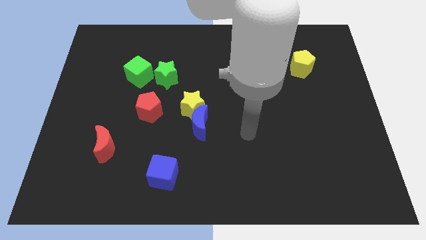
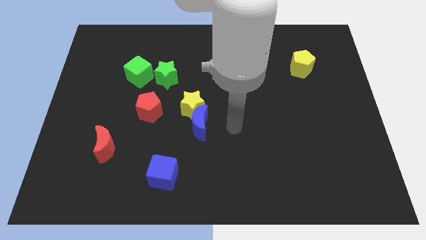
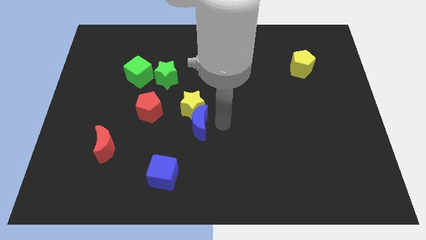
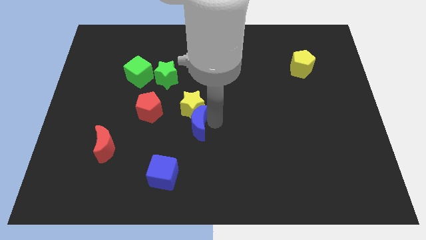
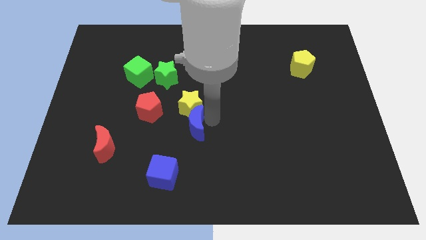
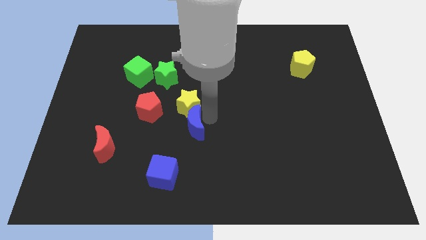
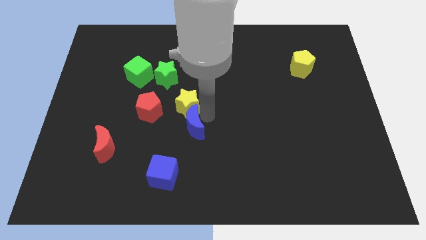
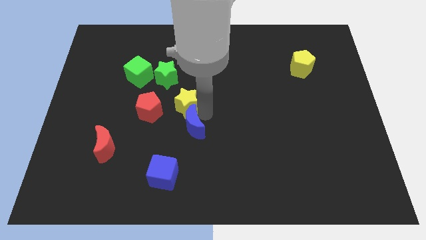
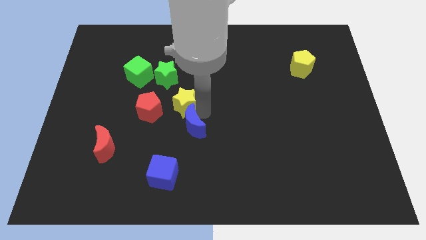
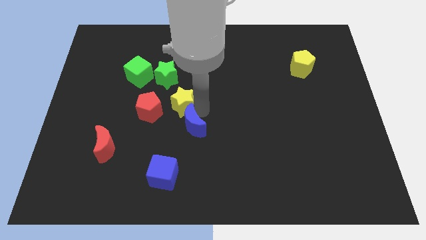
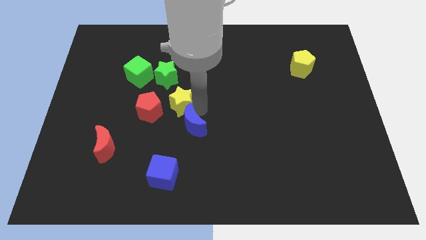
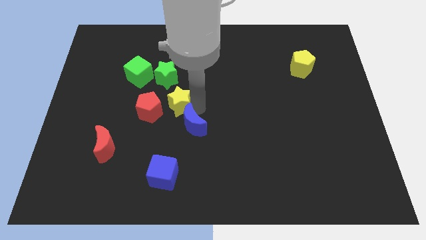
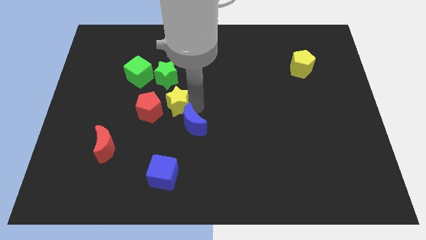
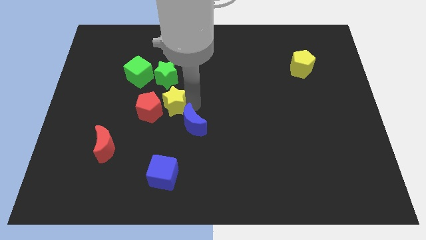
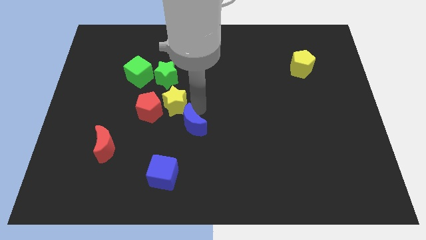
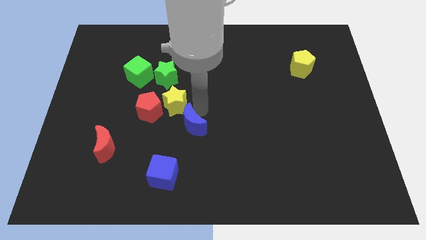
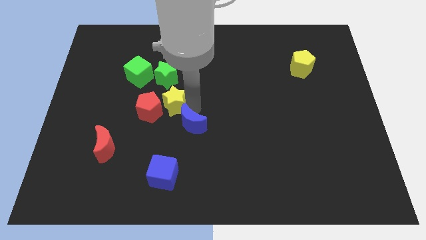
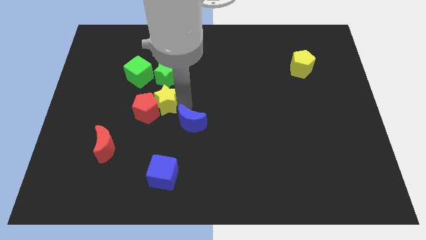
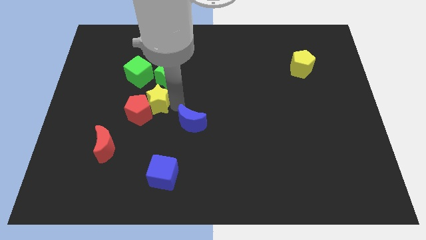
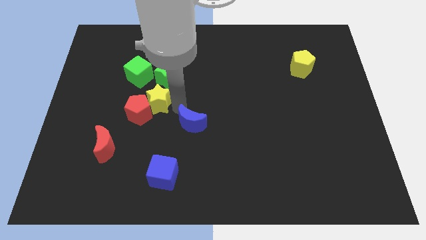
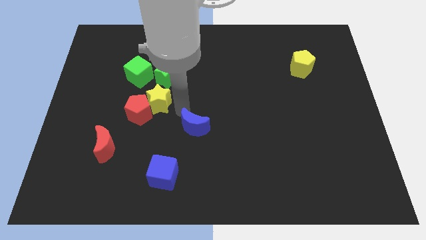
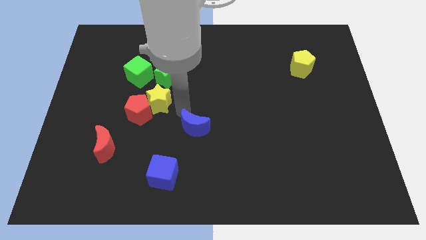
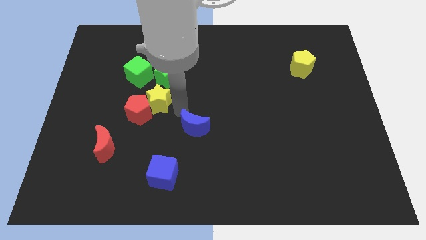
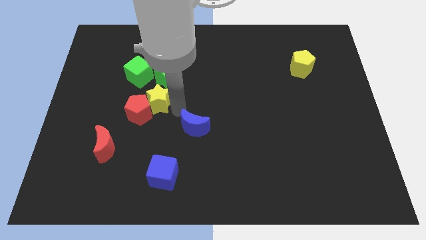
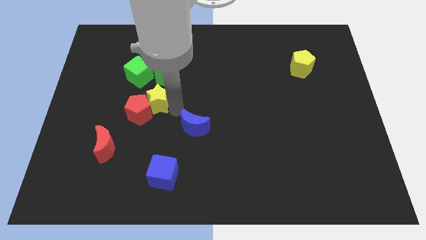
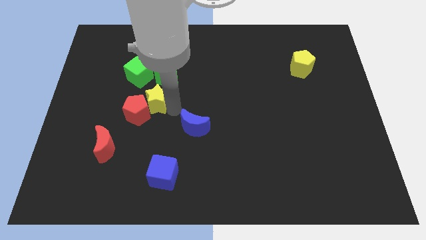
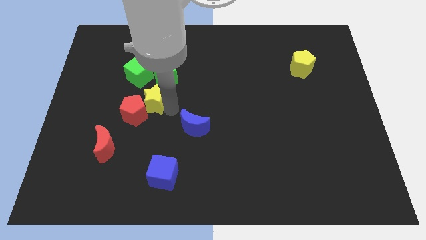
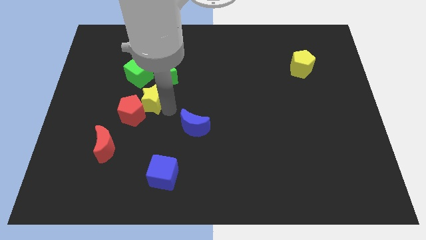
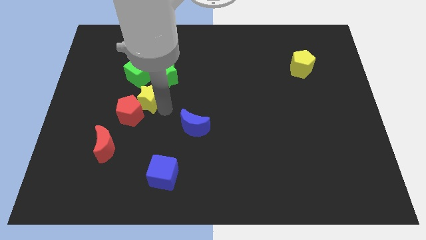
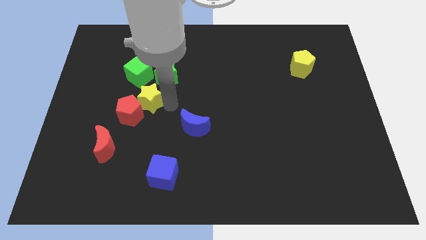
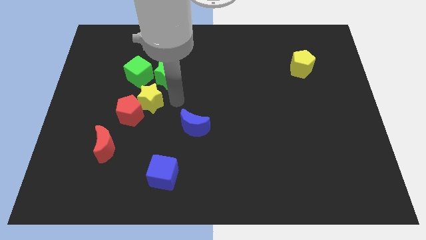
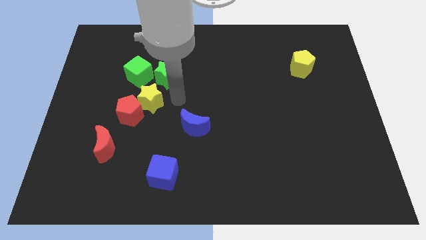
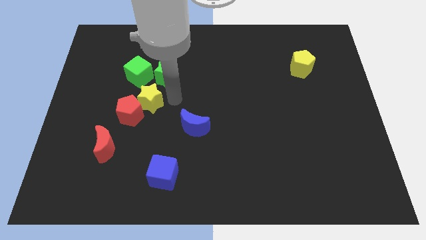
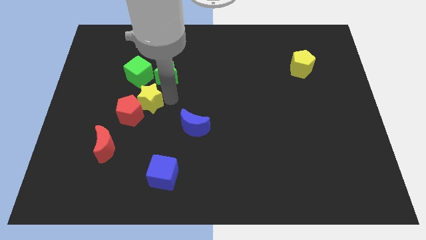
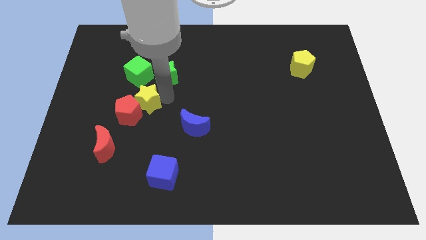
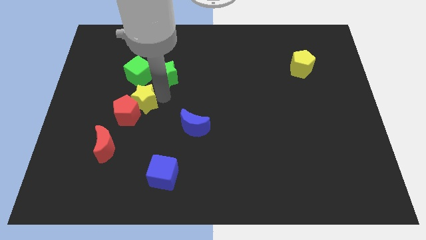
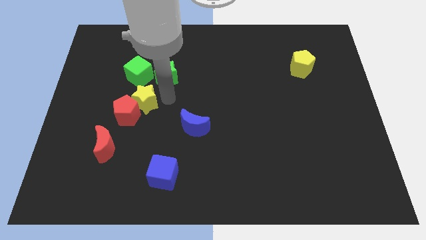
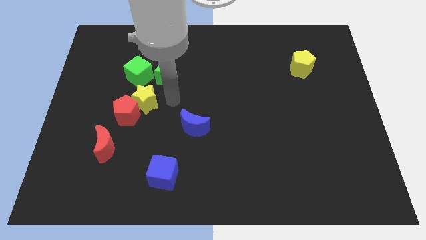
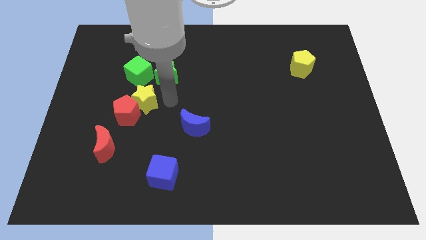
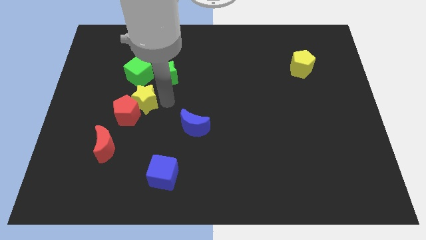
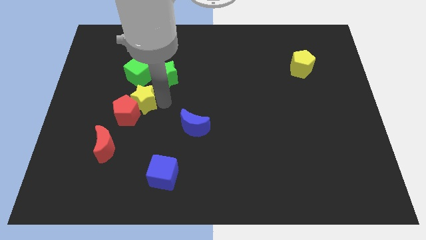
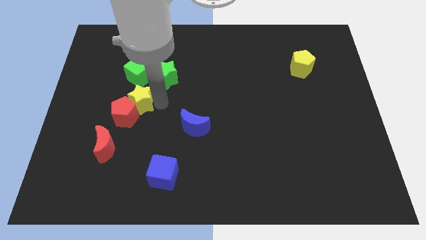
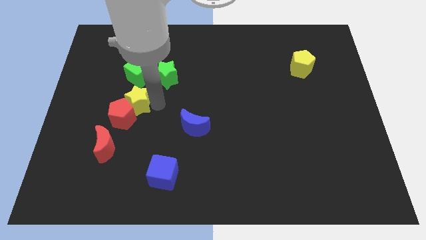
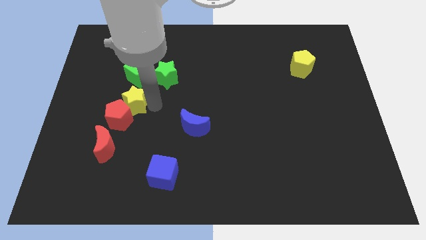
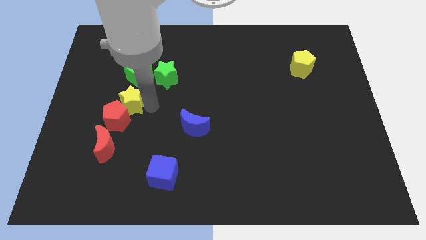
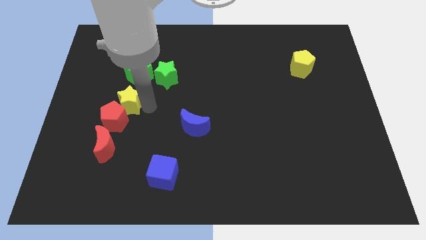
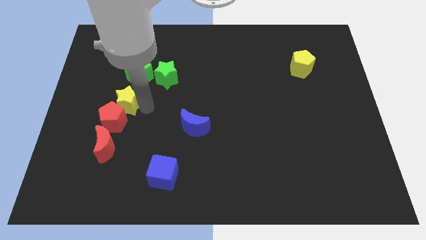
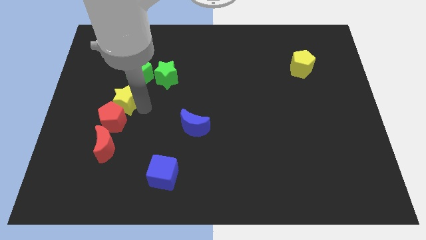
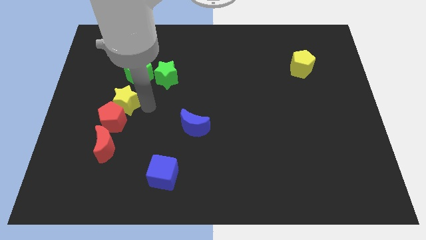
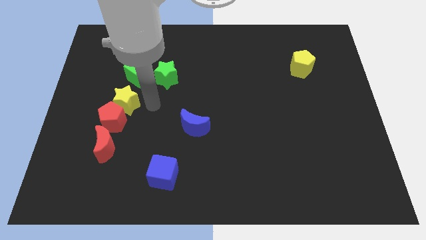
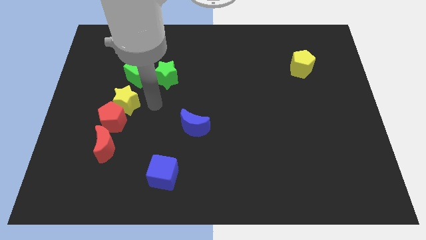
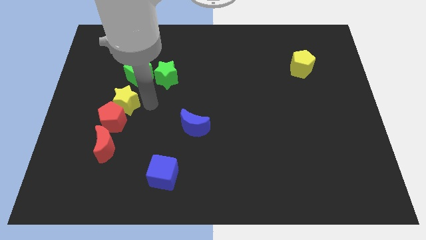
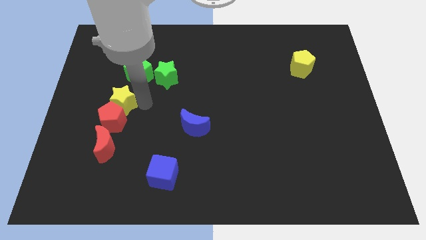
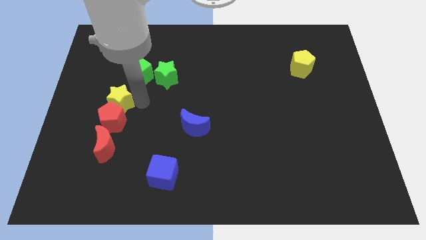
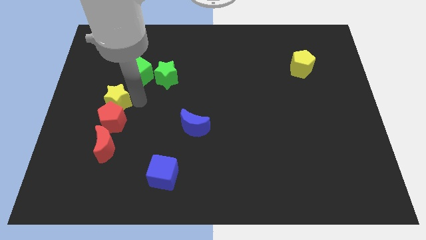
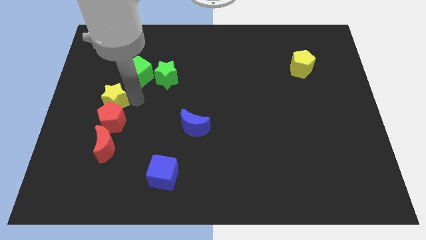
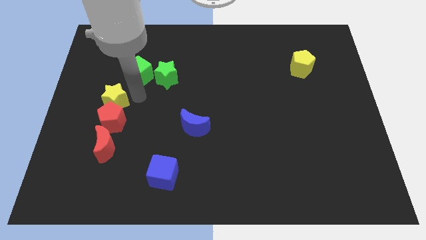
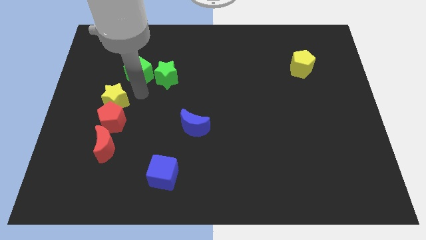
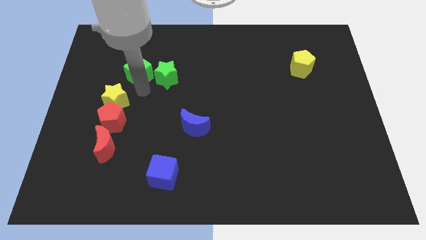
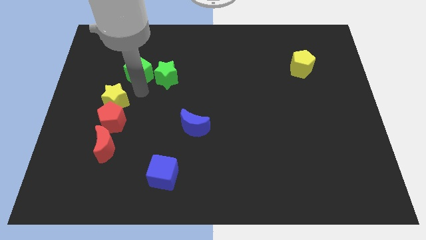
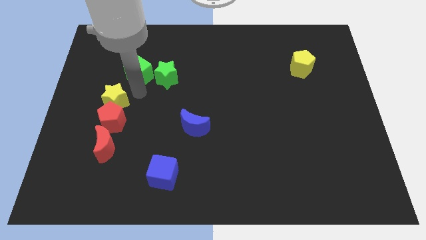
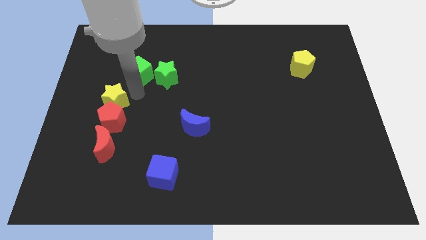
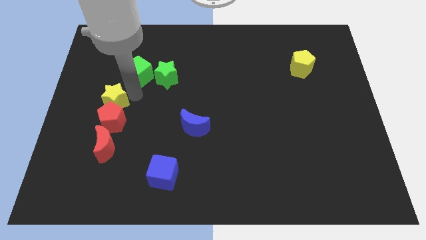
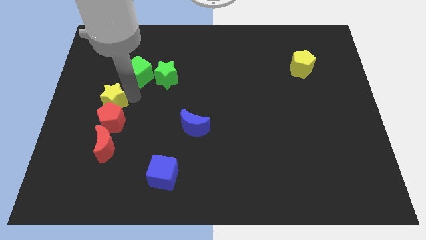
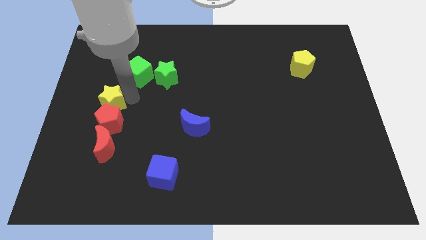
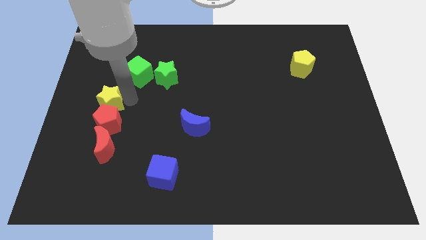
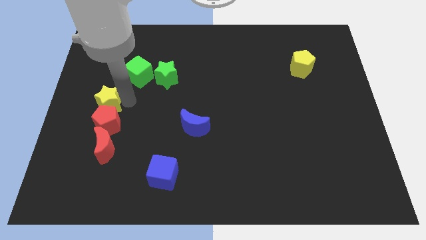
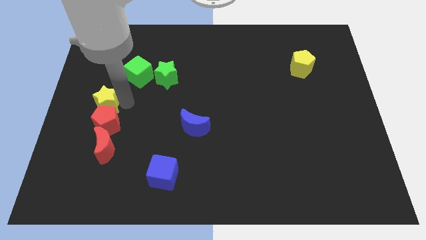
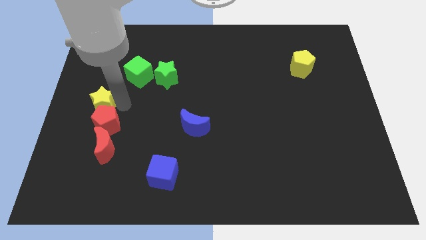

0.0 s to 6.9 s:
slide the yellow star to the center left

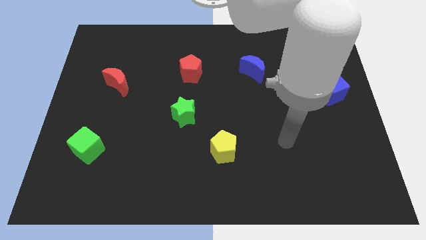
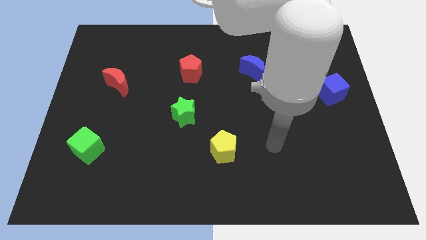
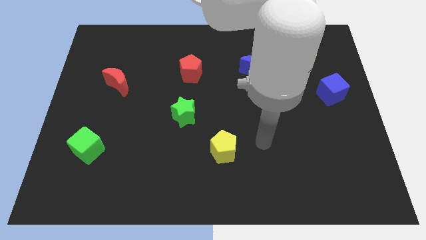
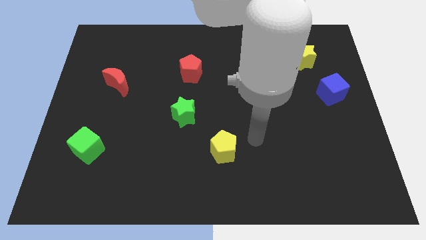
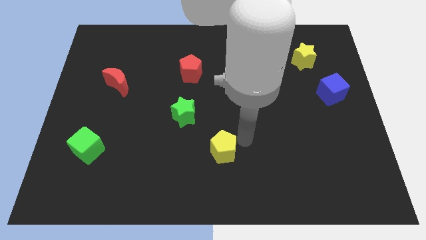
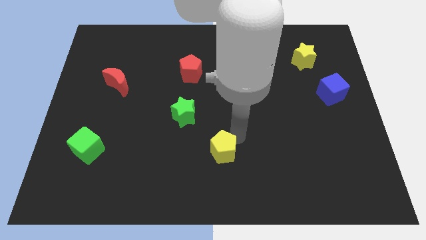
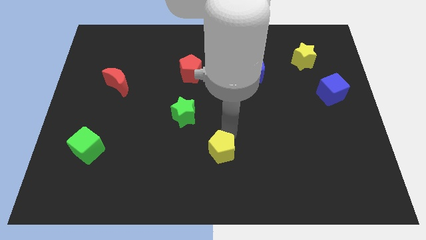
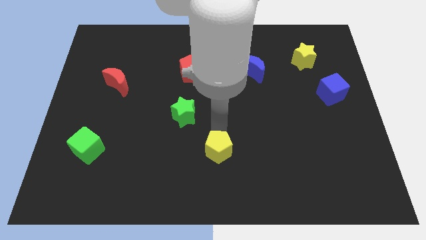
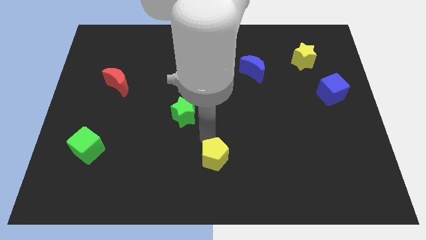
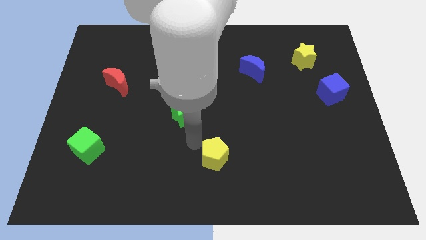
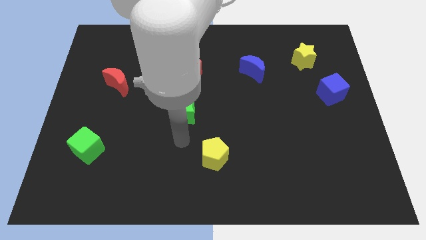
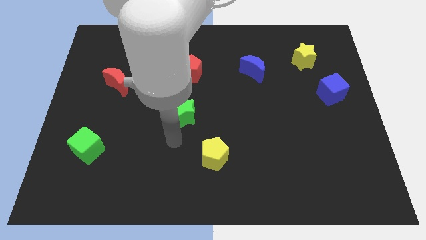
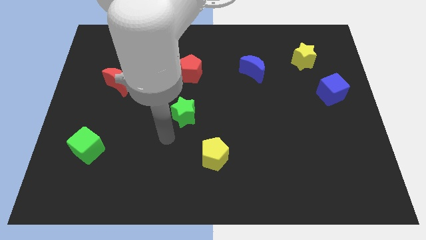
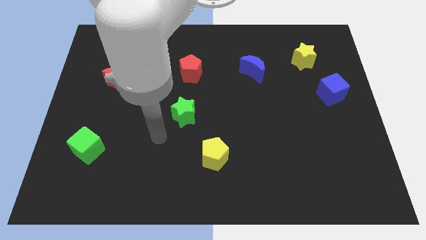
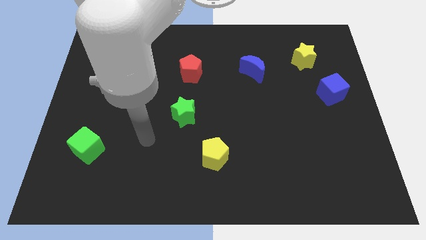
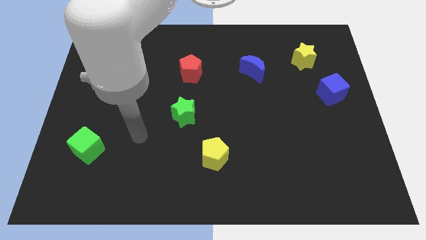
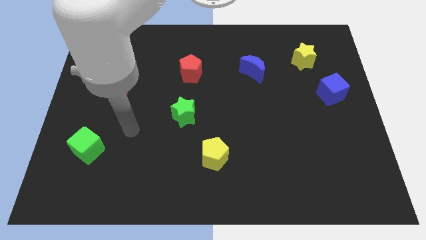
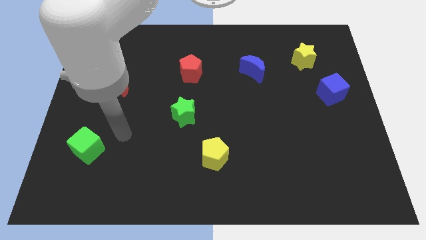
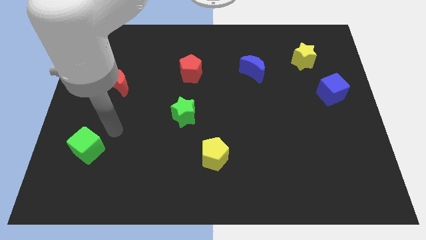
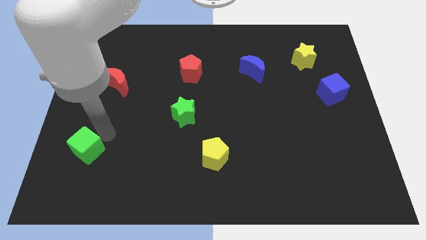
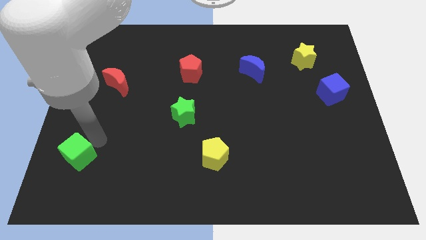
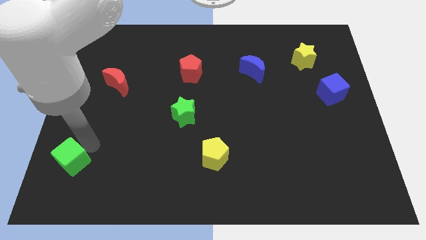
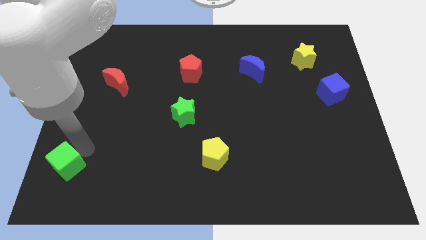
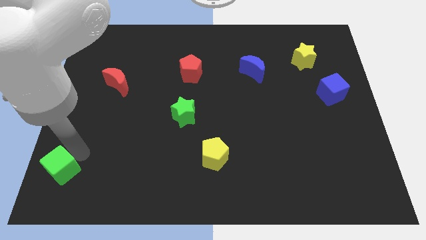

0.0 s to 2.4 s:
put the green cube to the bottom left
